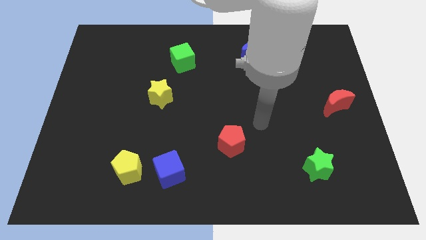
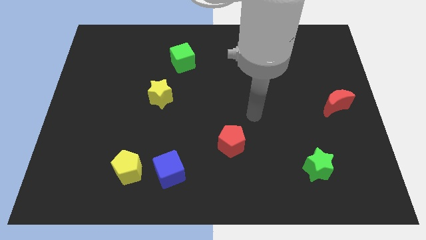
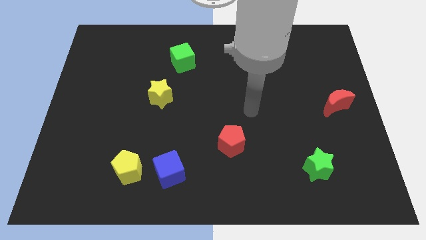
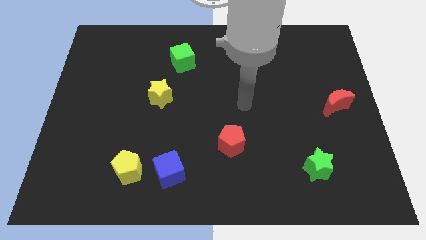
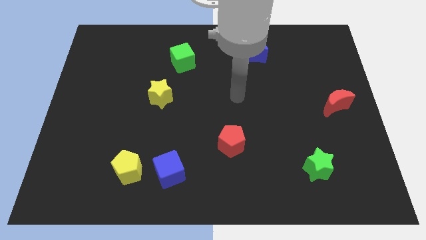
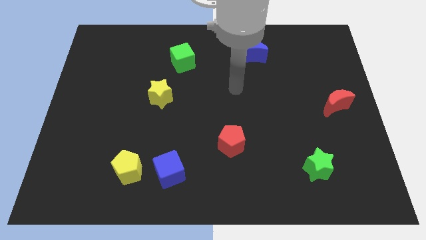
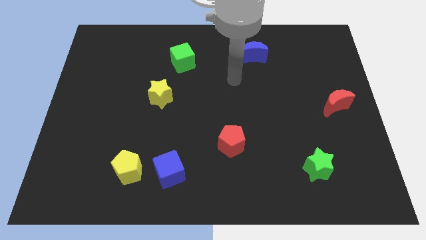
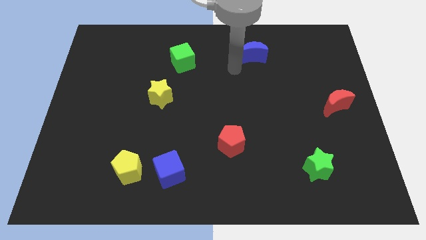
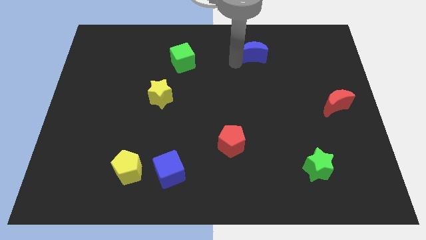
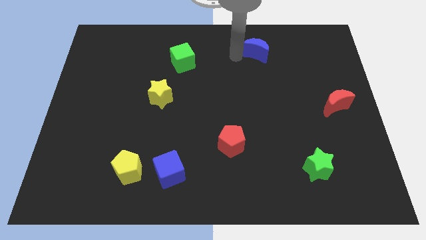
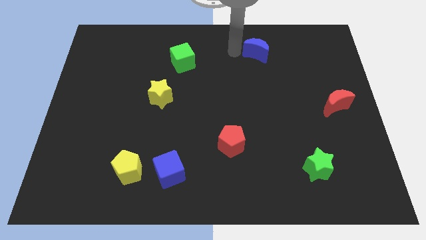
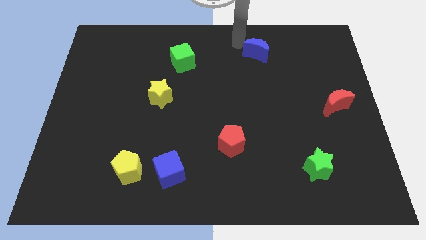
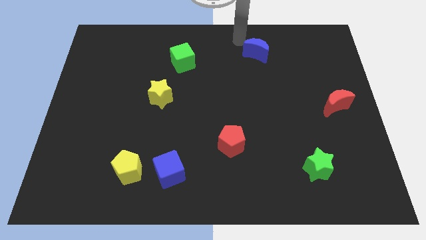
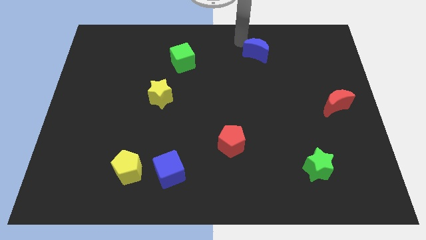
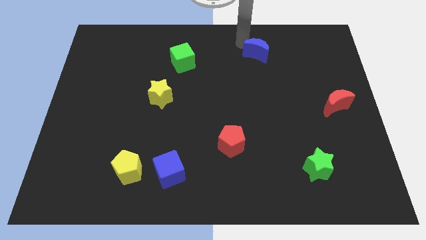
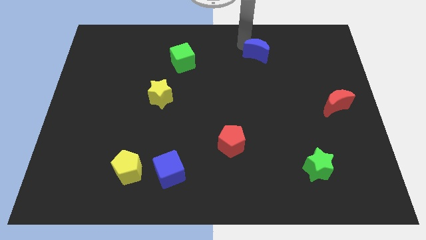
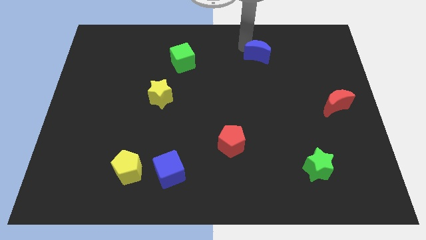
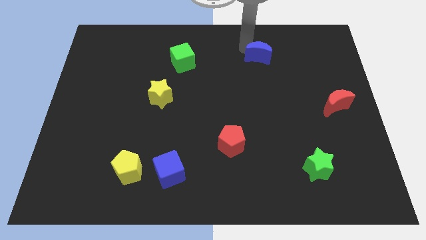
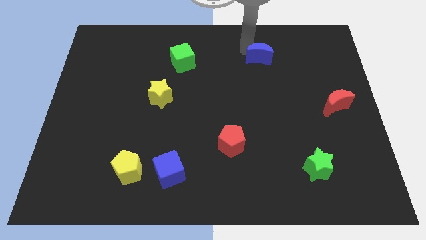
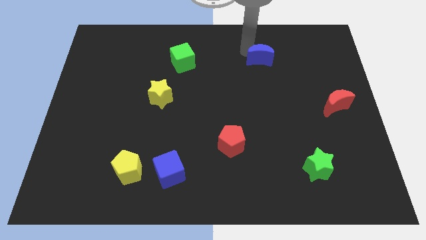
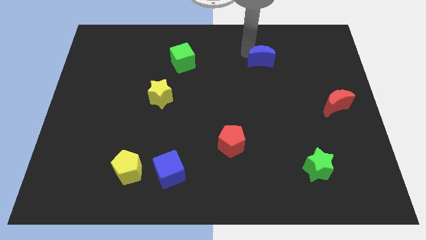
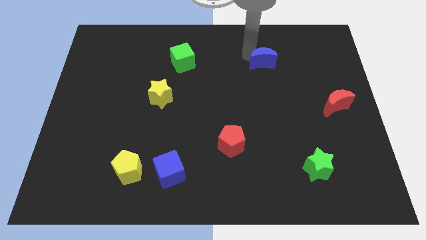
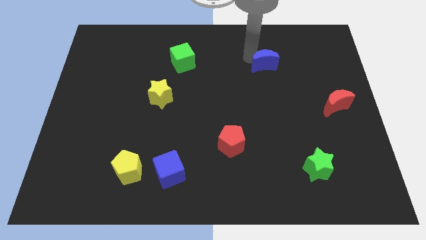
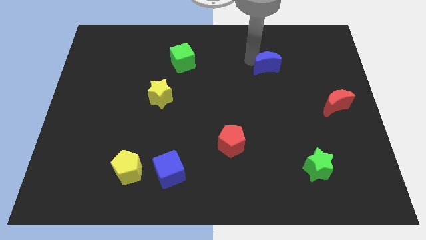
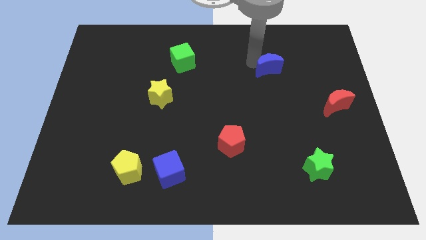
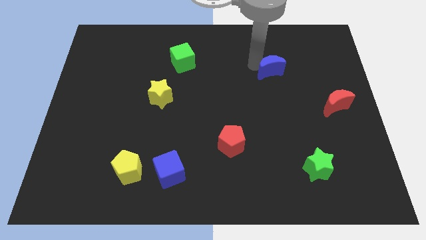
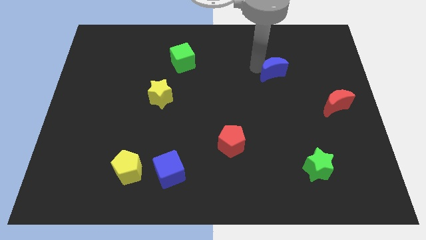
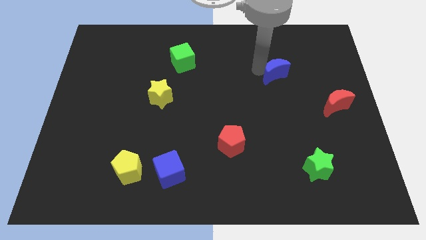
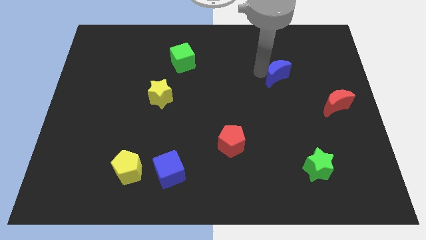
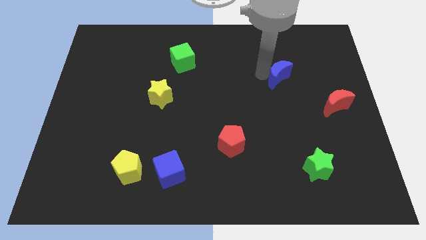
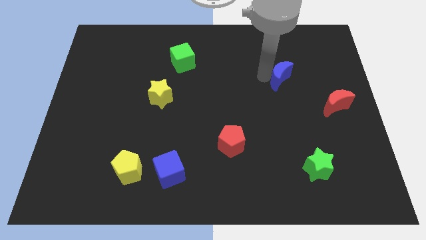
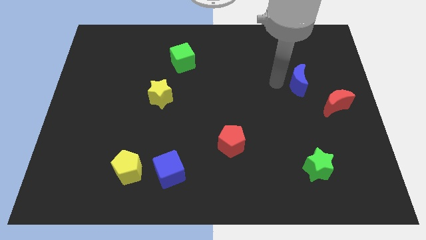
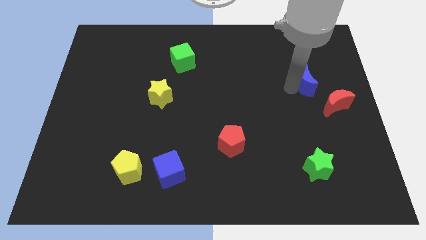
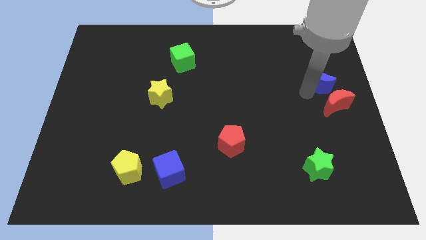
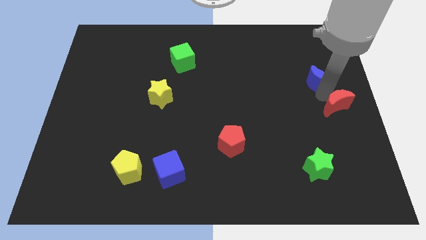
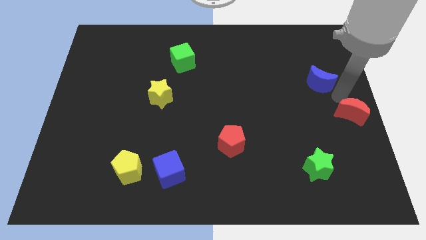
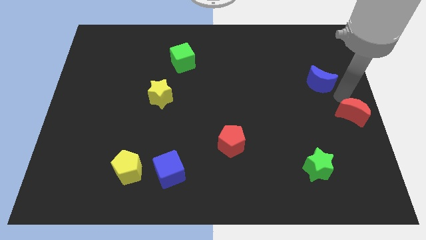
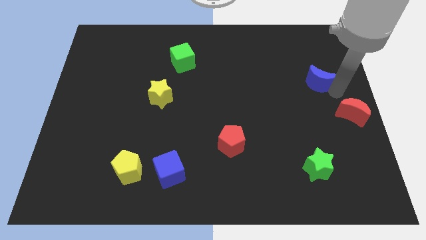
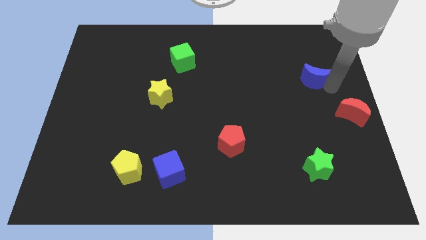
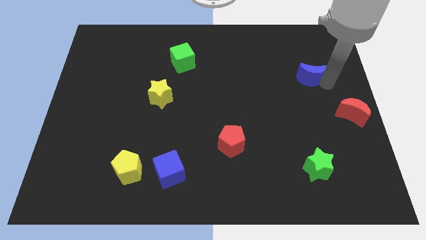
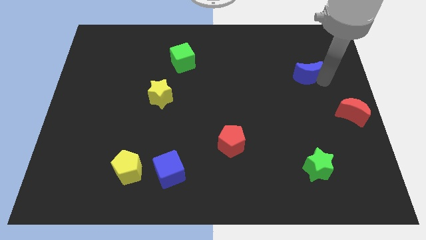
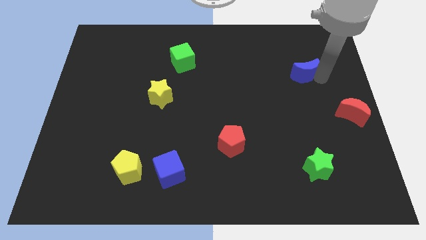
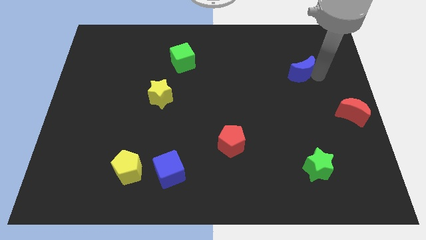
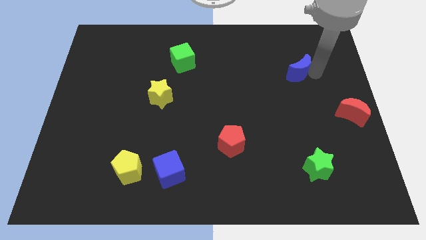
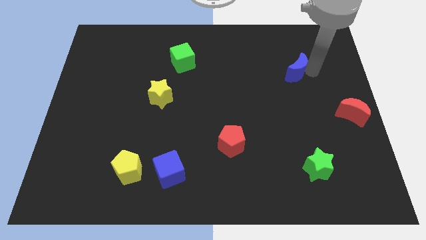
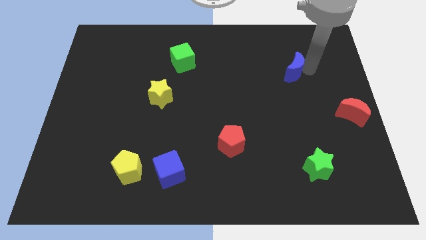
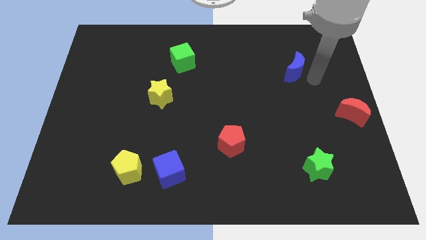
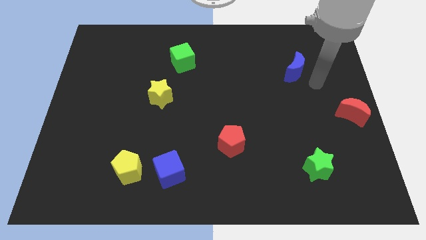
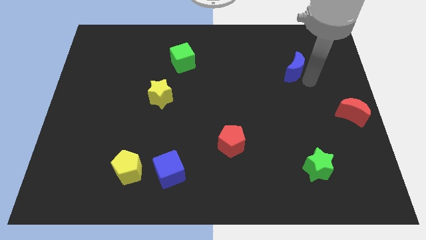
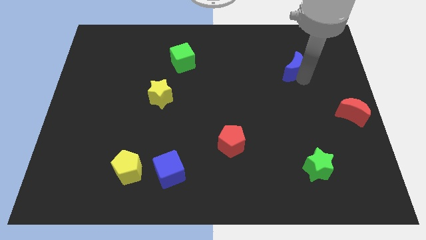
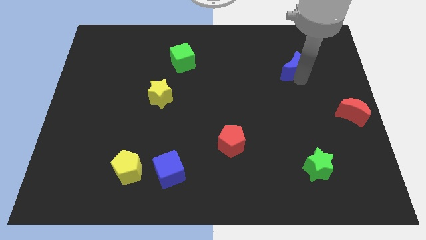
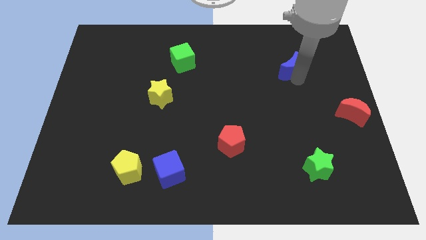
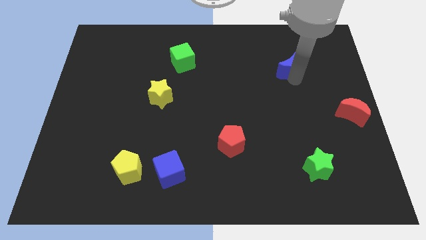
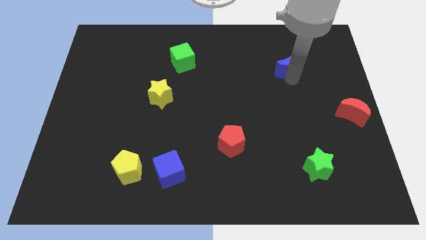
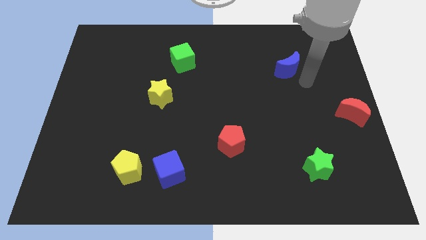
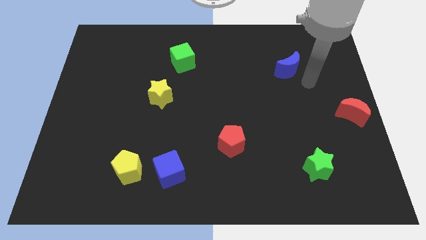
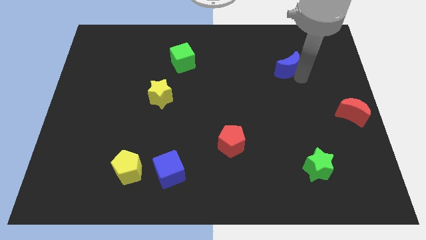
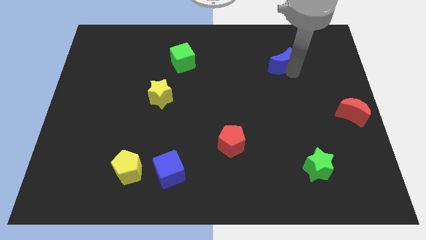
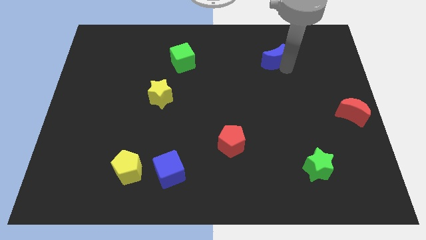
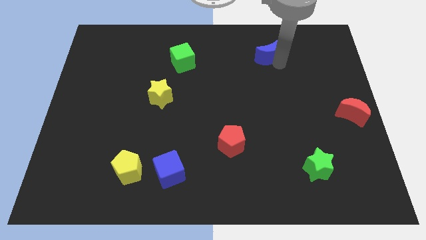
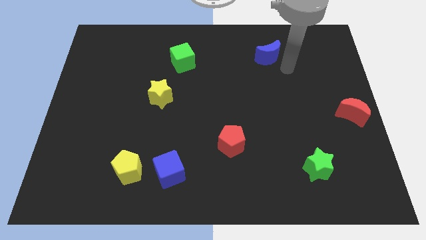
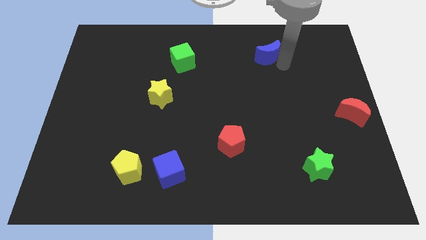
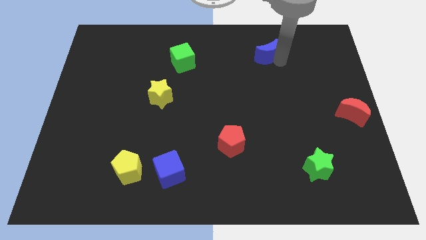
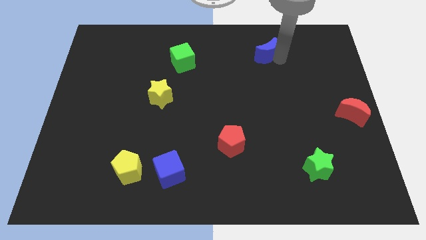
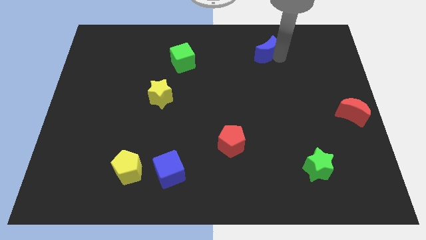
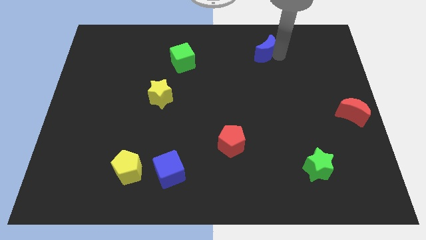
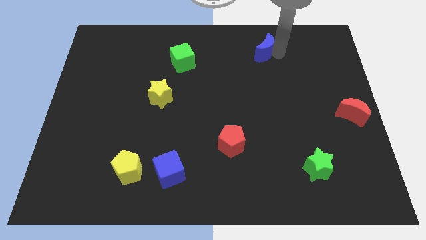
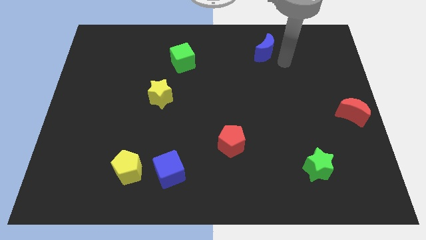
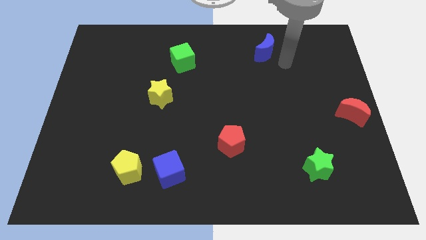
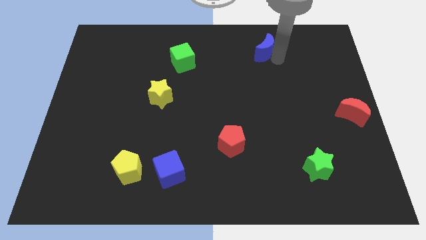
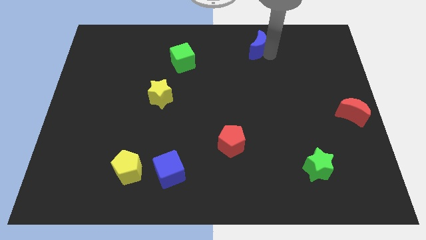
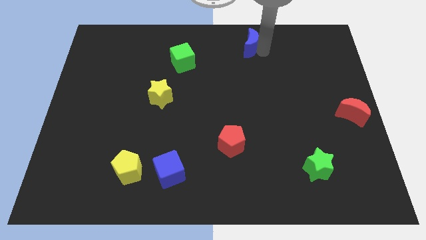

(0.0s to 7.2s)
slide the blue moon to the top
